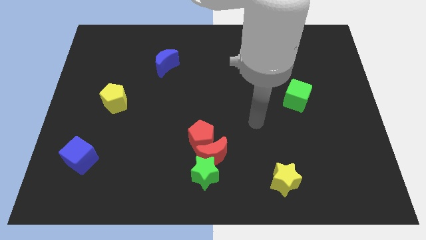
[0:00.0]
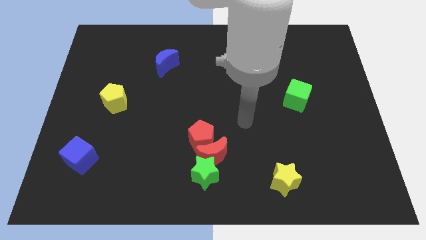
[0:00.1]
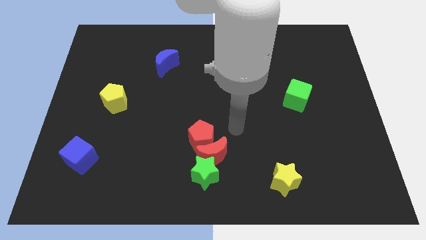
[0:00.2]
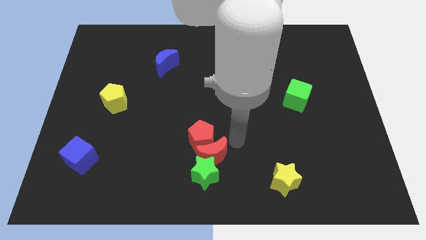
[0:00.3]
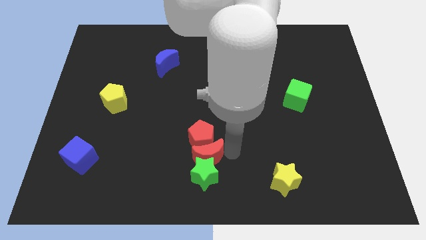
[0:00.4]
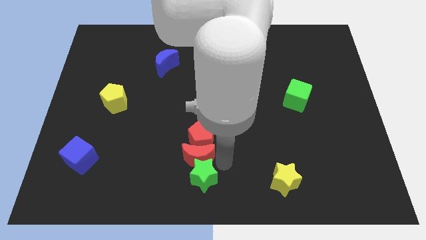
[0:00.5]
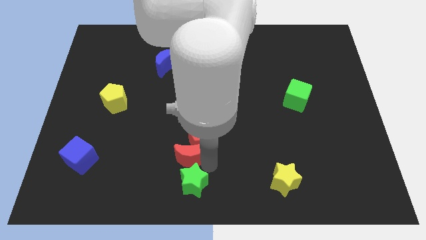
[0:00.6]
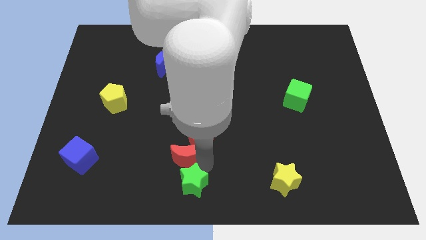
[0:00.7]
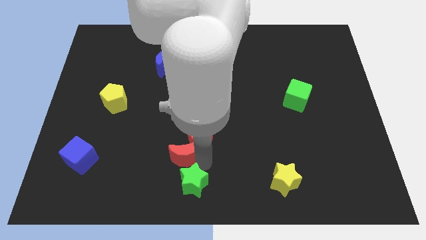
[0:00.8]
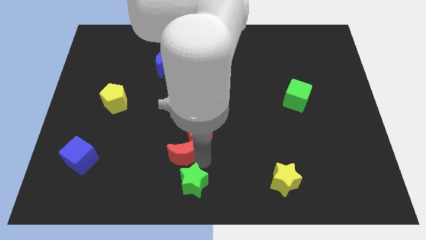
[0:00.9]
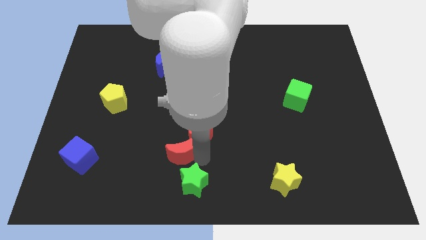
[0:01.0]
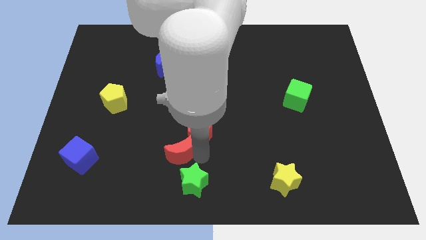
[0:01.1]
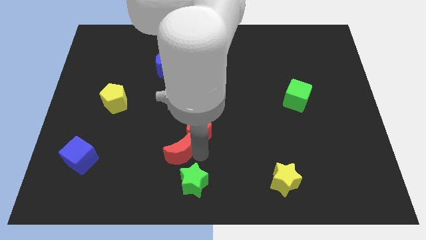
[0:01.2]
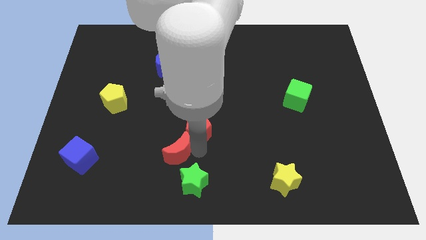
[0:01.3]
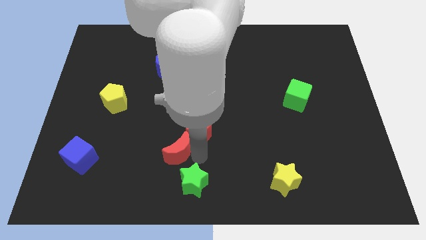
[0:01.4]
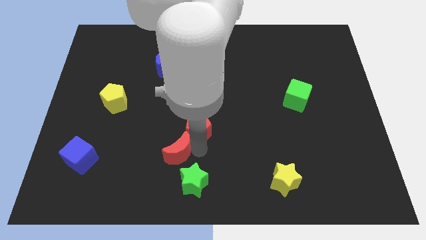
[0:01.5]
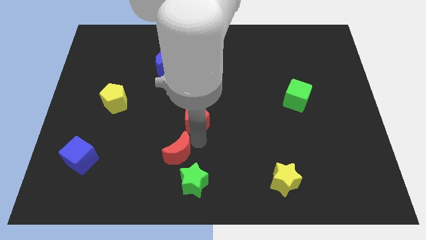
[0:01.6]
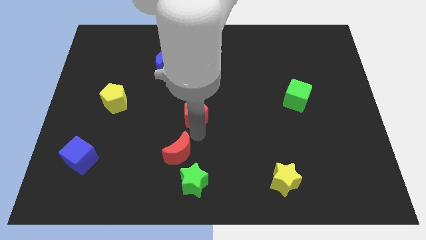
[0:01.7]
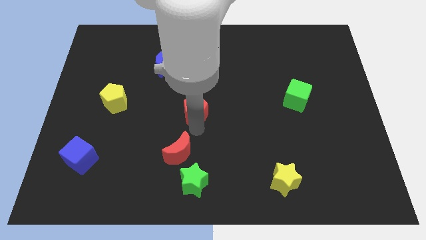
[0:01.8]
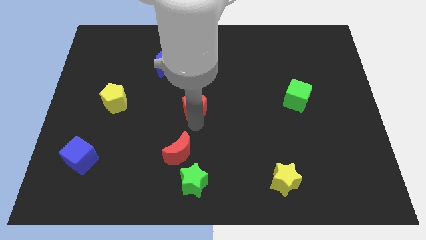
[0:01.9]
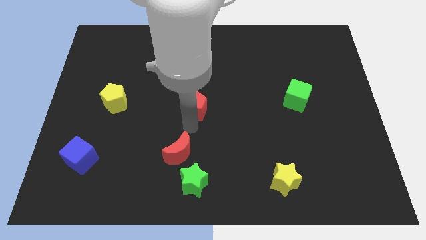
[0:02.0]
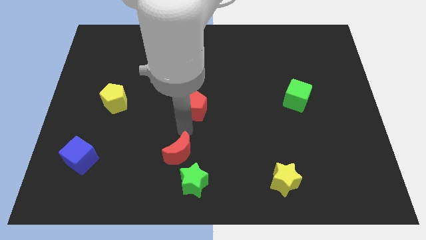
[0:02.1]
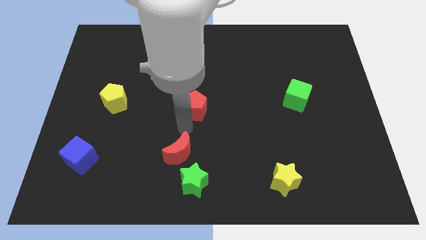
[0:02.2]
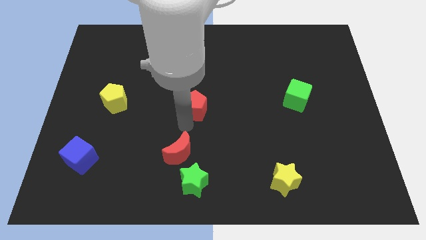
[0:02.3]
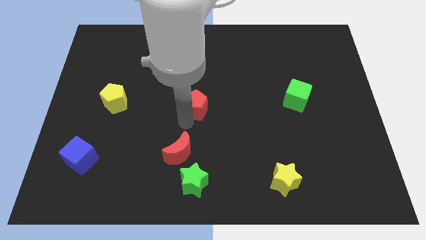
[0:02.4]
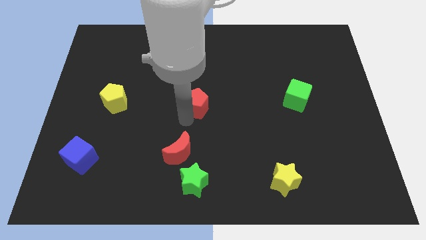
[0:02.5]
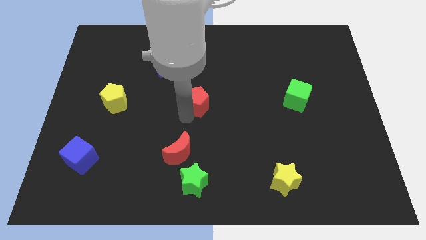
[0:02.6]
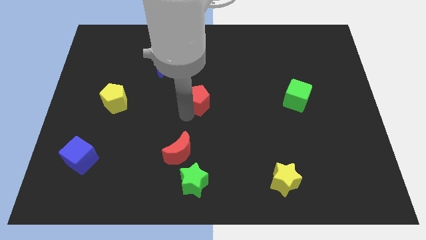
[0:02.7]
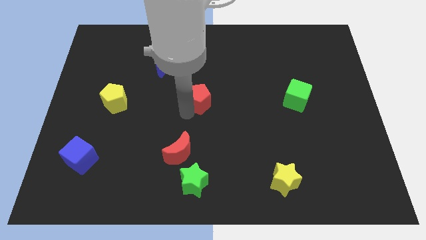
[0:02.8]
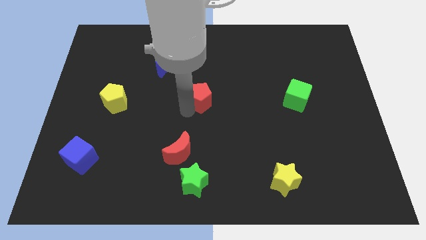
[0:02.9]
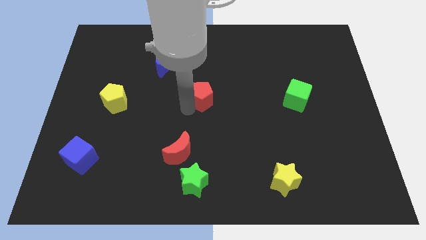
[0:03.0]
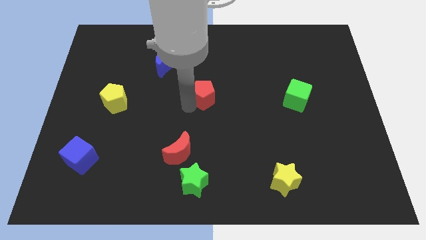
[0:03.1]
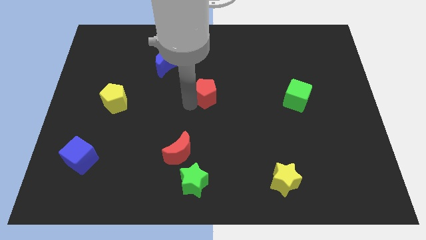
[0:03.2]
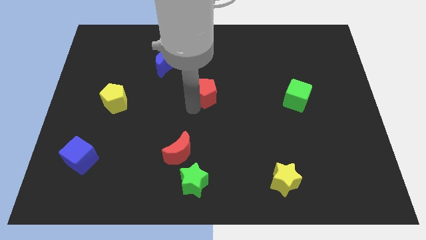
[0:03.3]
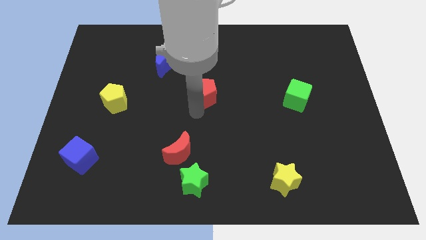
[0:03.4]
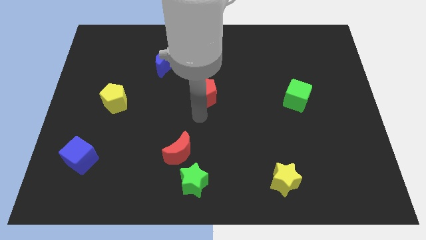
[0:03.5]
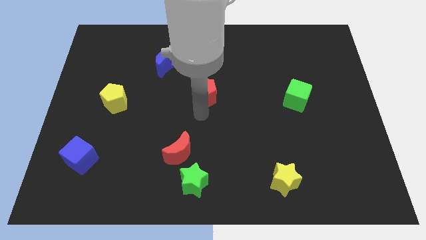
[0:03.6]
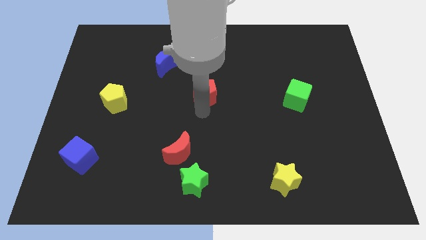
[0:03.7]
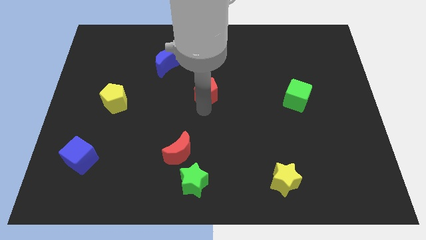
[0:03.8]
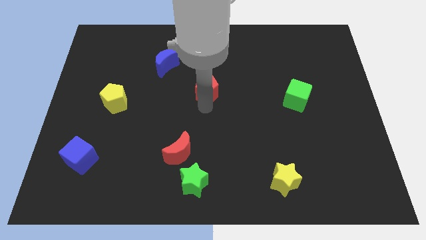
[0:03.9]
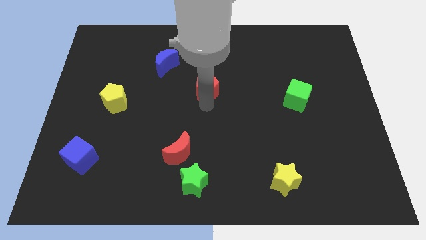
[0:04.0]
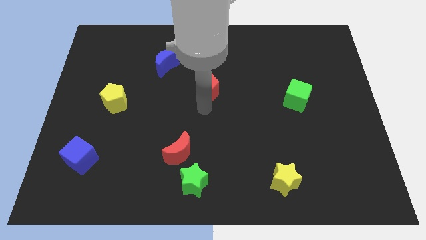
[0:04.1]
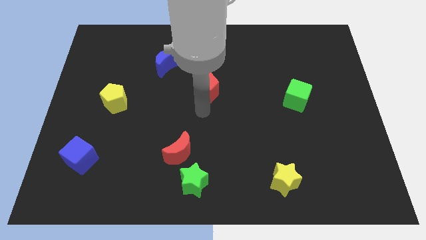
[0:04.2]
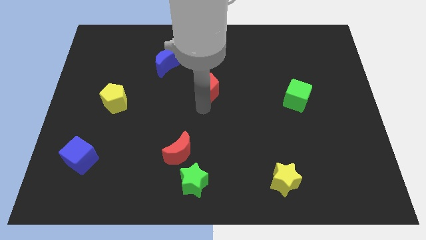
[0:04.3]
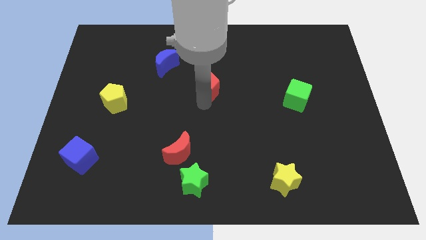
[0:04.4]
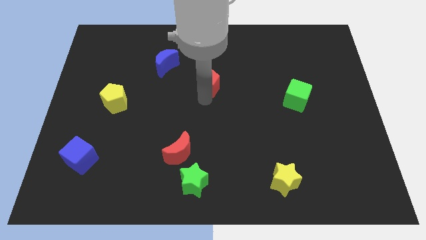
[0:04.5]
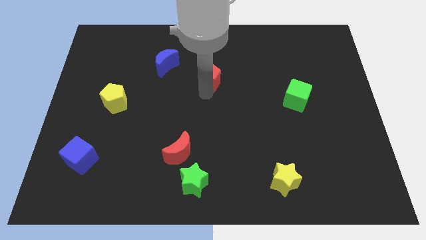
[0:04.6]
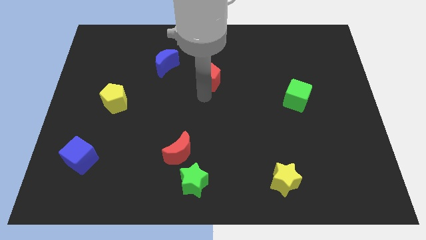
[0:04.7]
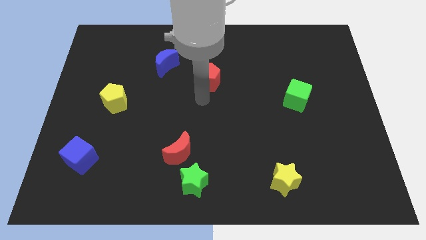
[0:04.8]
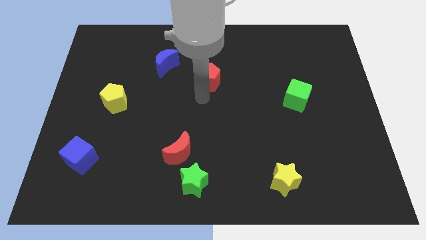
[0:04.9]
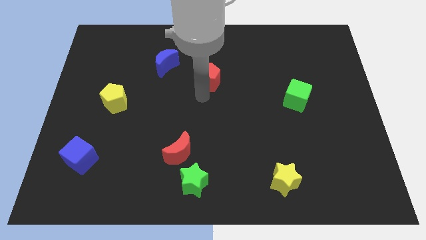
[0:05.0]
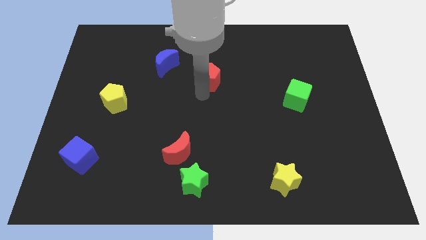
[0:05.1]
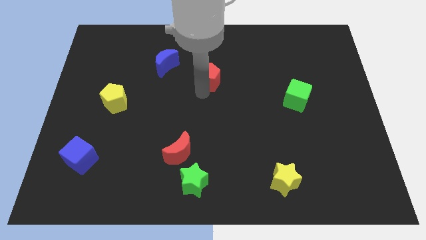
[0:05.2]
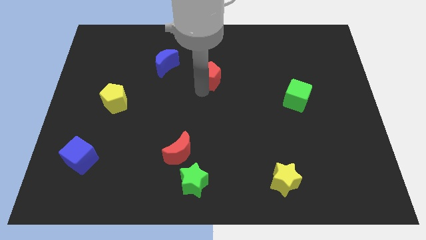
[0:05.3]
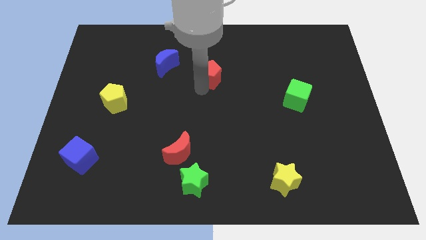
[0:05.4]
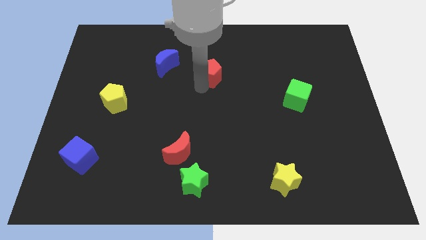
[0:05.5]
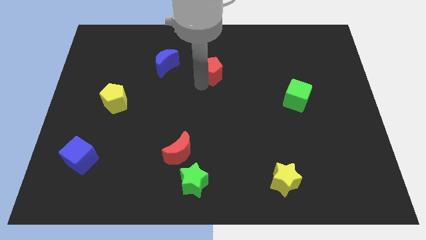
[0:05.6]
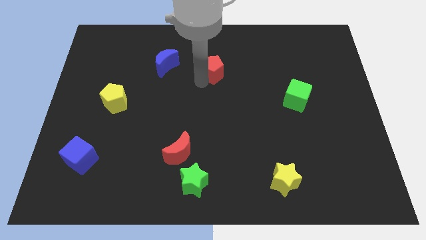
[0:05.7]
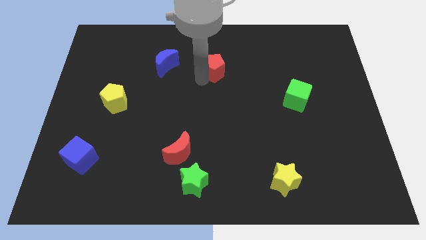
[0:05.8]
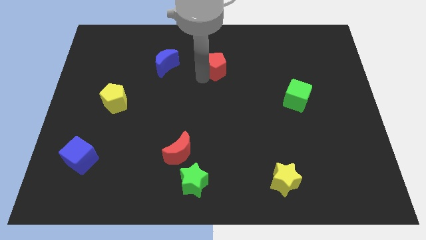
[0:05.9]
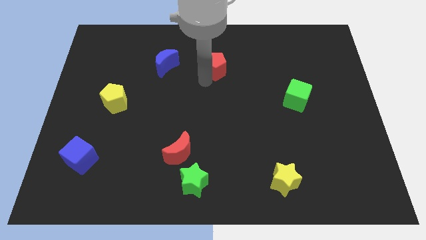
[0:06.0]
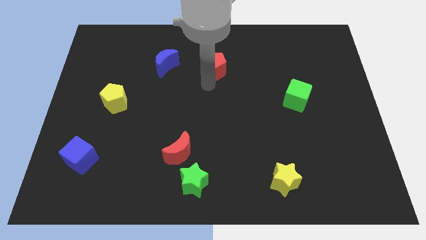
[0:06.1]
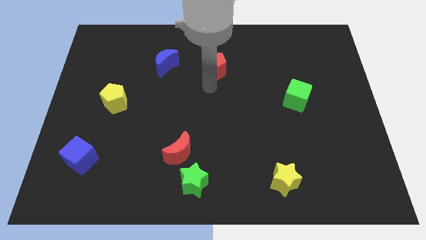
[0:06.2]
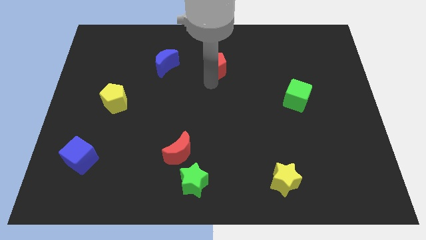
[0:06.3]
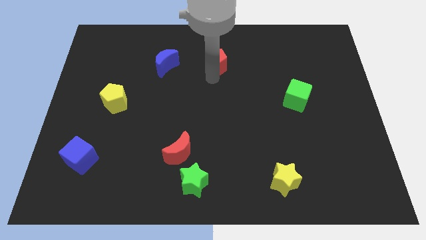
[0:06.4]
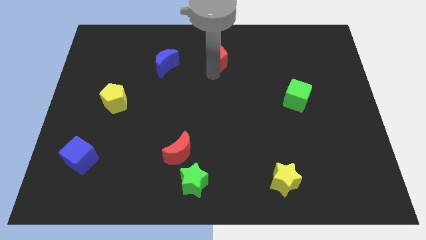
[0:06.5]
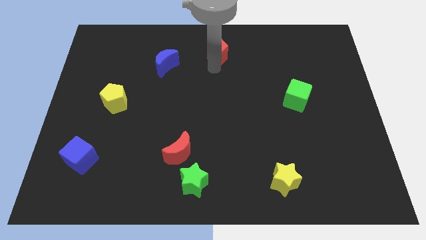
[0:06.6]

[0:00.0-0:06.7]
push the red pentagon to the top side
